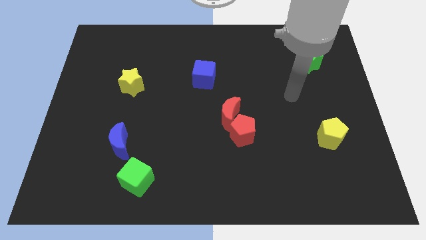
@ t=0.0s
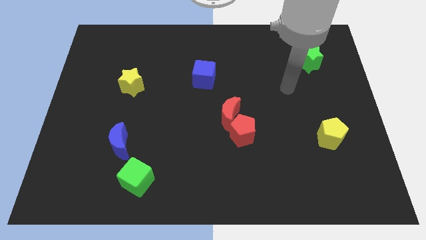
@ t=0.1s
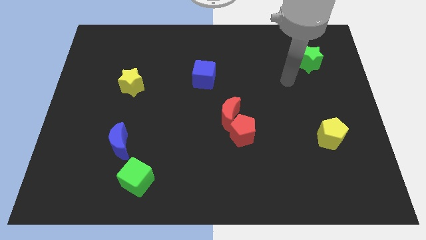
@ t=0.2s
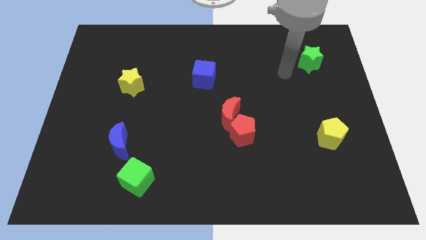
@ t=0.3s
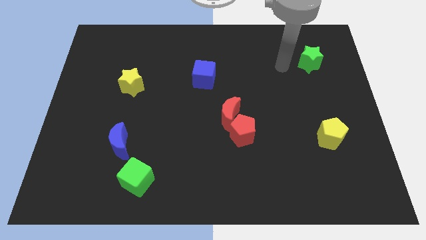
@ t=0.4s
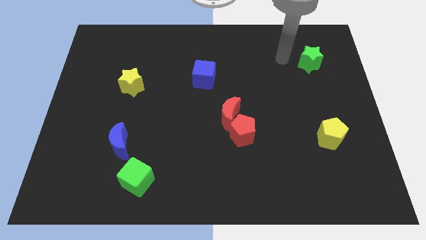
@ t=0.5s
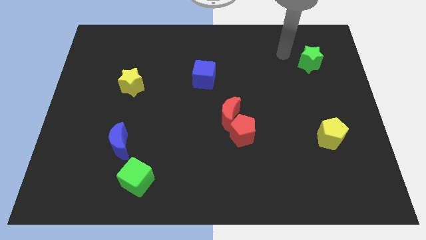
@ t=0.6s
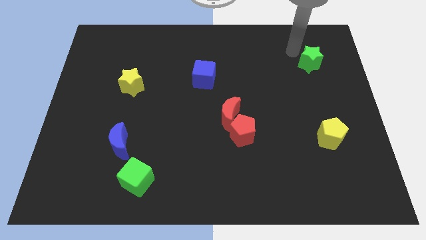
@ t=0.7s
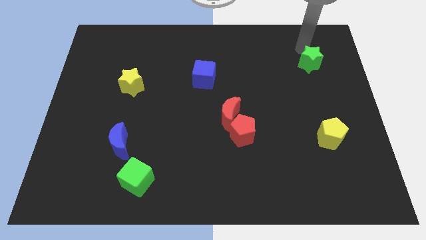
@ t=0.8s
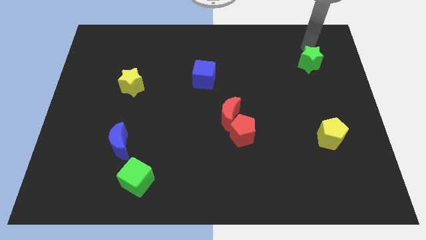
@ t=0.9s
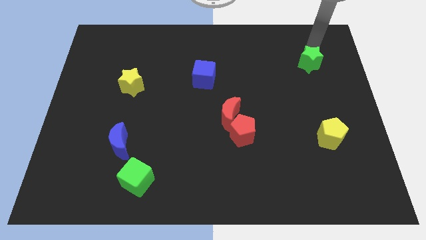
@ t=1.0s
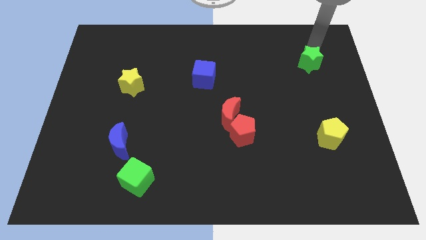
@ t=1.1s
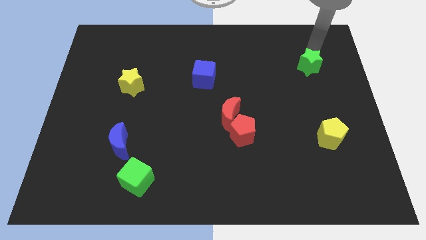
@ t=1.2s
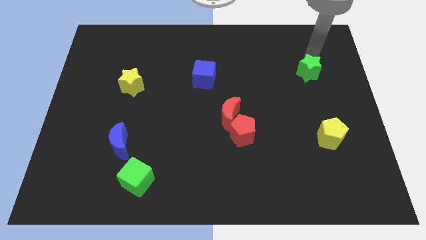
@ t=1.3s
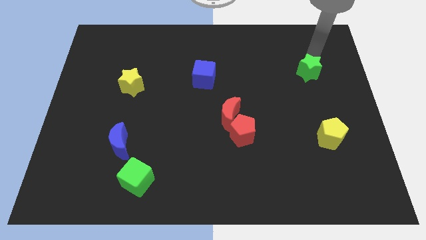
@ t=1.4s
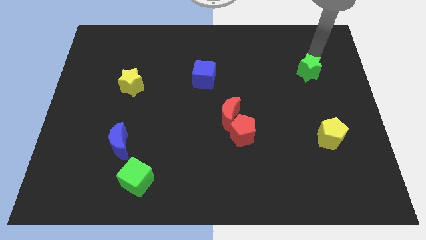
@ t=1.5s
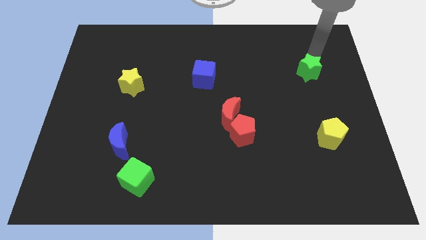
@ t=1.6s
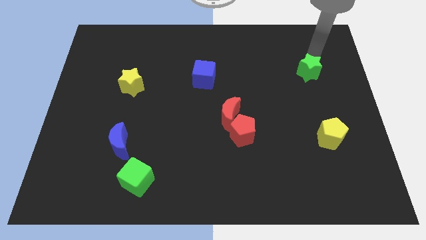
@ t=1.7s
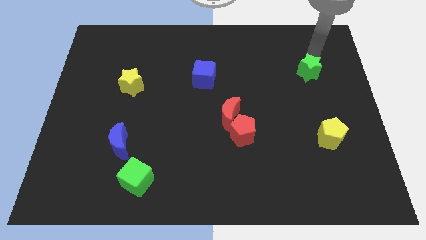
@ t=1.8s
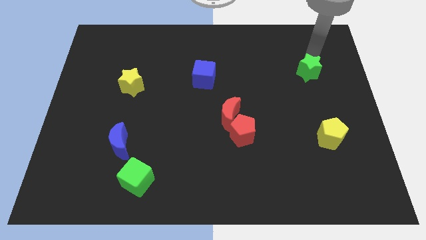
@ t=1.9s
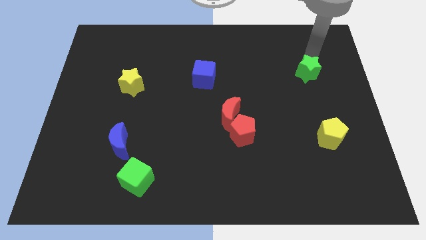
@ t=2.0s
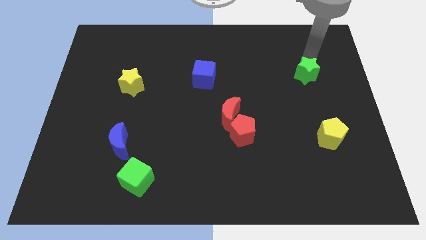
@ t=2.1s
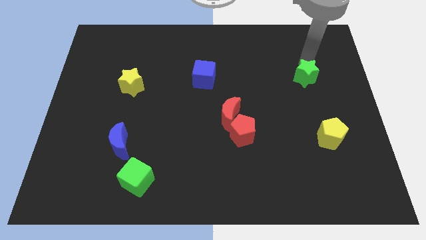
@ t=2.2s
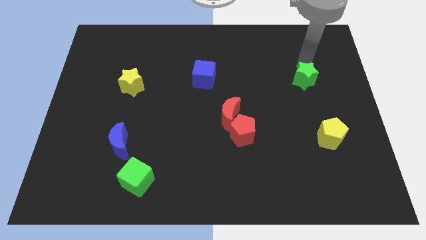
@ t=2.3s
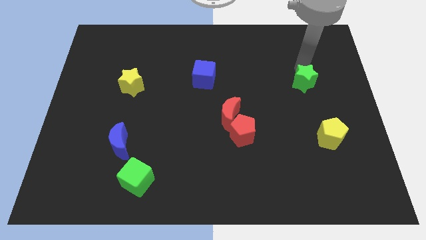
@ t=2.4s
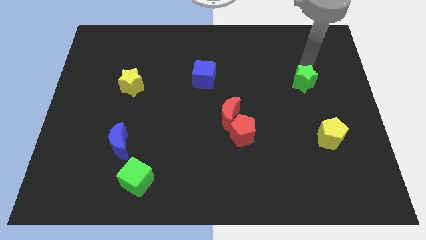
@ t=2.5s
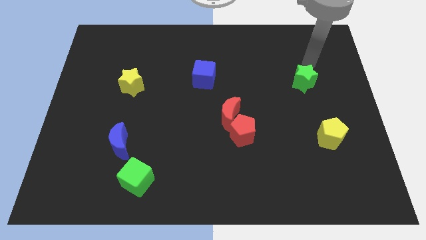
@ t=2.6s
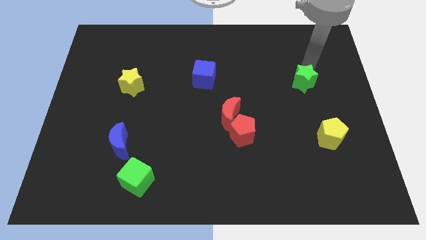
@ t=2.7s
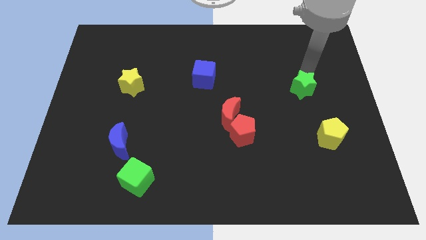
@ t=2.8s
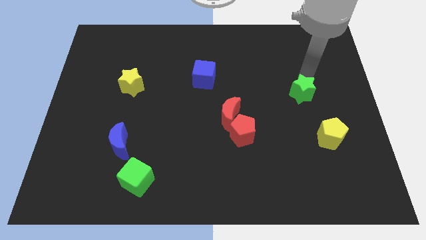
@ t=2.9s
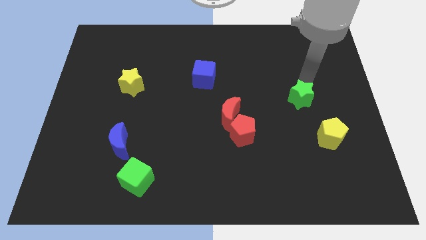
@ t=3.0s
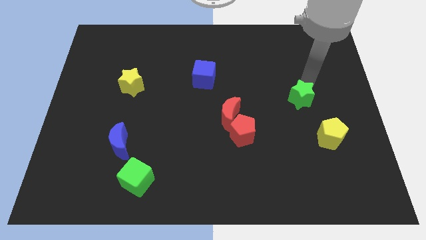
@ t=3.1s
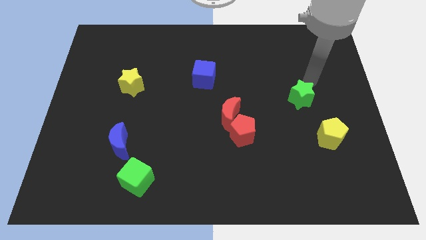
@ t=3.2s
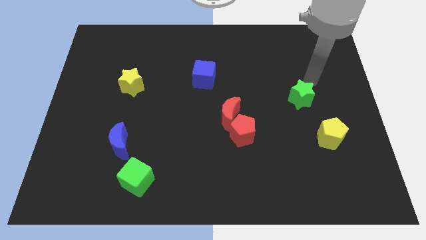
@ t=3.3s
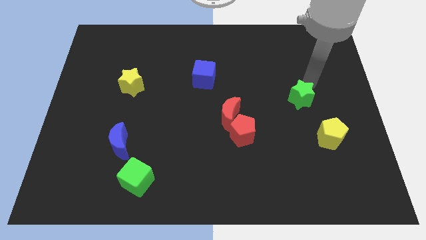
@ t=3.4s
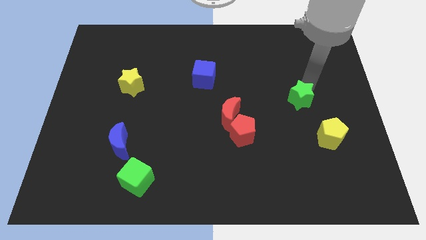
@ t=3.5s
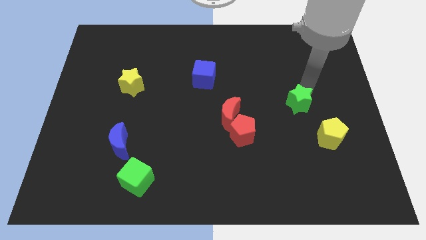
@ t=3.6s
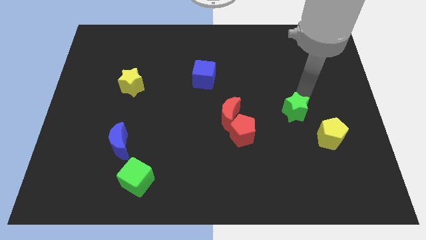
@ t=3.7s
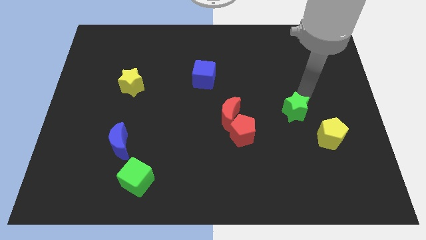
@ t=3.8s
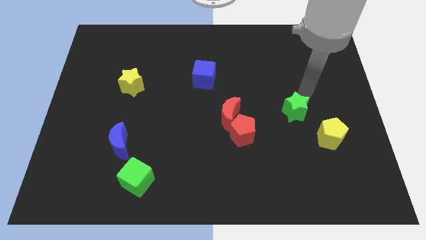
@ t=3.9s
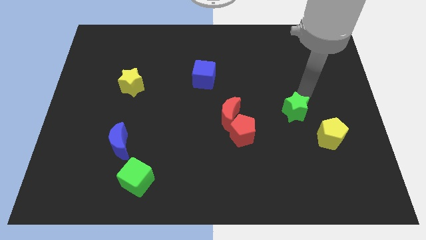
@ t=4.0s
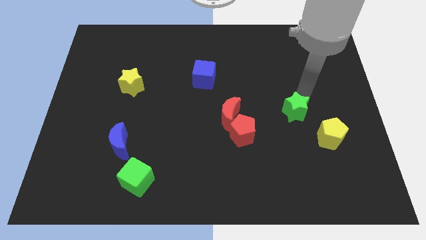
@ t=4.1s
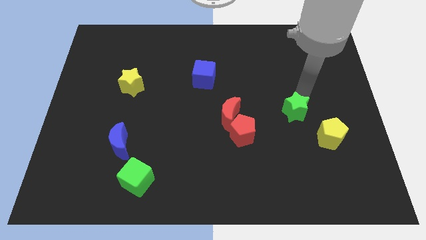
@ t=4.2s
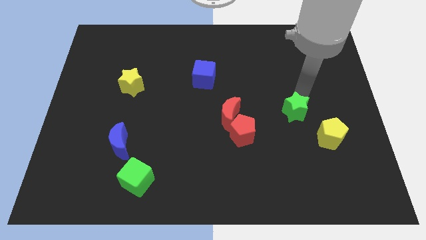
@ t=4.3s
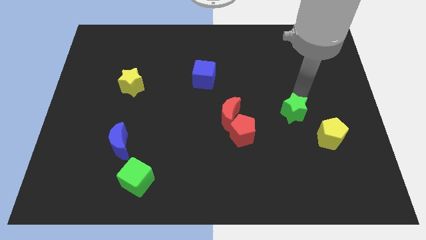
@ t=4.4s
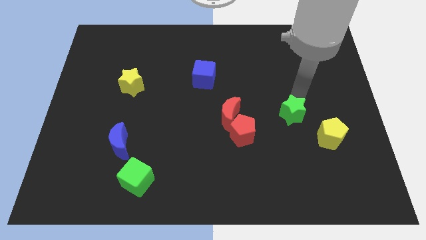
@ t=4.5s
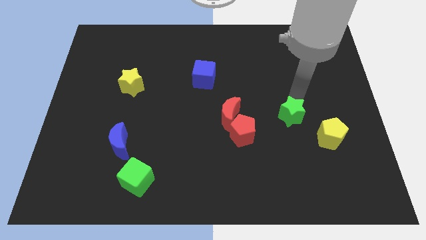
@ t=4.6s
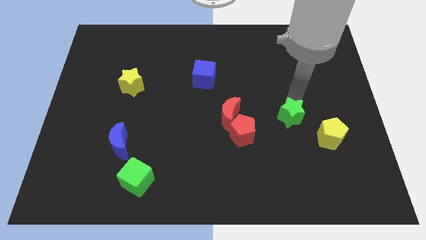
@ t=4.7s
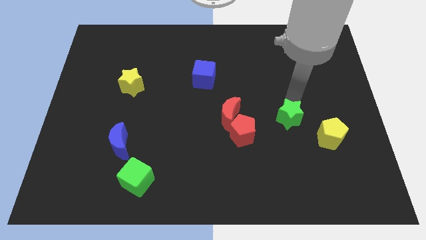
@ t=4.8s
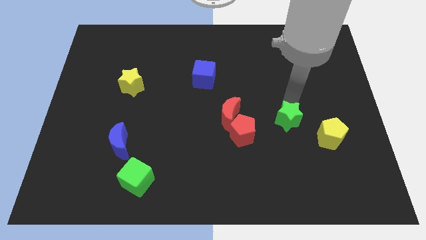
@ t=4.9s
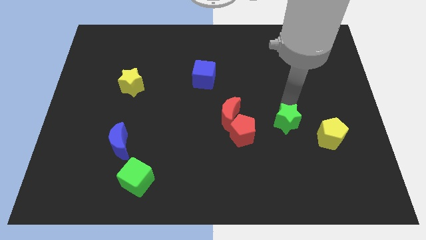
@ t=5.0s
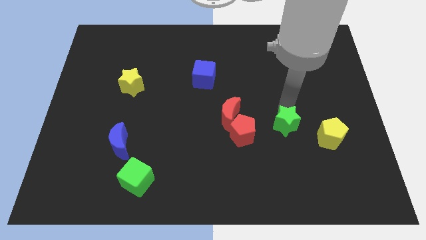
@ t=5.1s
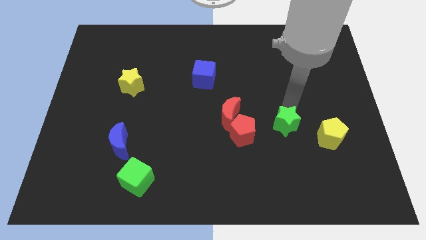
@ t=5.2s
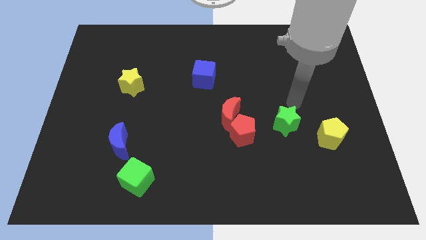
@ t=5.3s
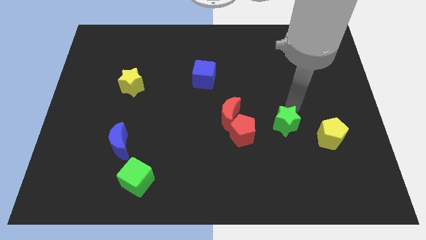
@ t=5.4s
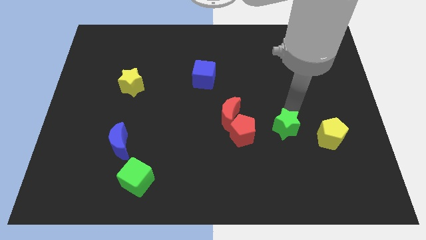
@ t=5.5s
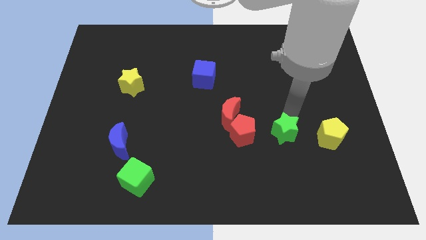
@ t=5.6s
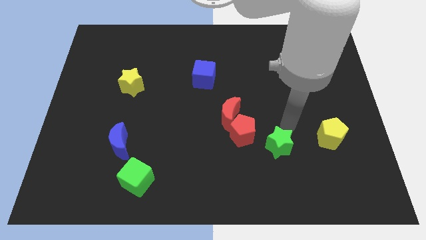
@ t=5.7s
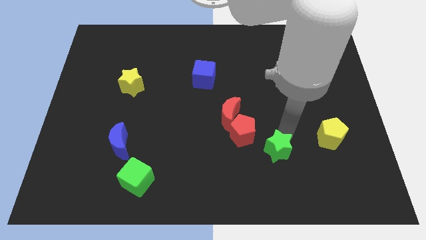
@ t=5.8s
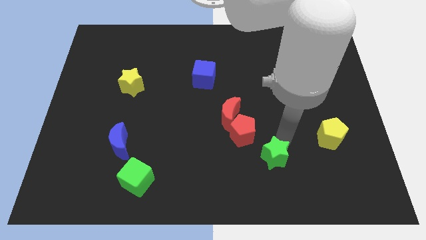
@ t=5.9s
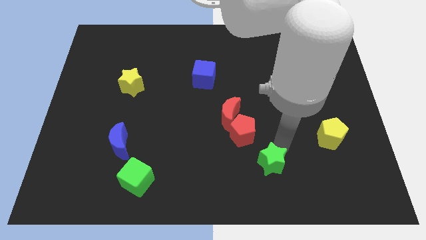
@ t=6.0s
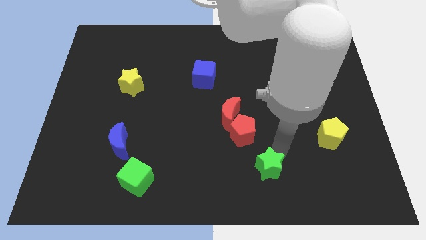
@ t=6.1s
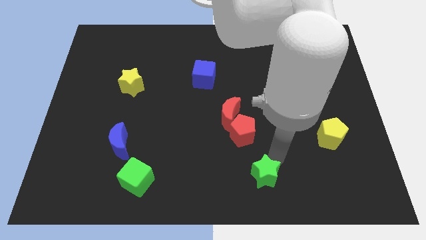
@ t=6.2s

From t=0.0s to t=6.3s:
put the green star to the bottom
